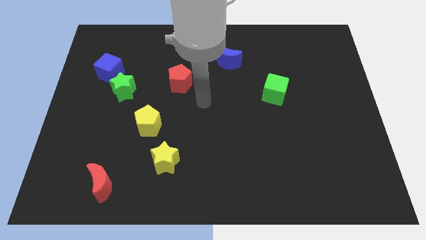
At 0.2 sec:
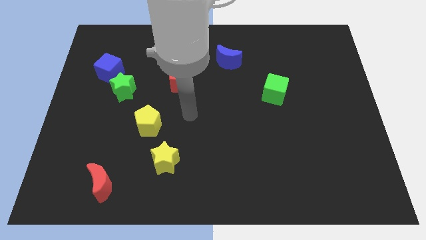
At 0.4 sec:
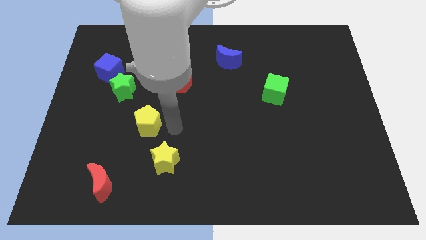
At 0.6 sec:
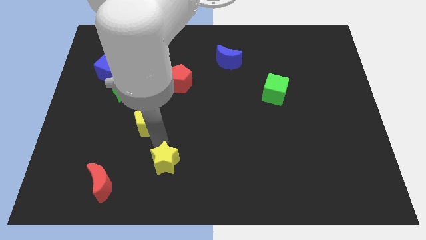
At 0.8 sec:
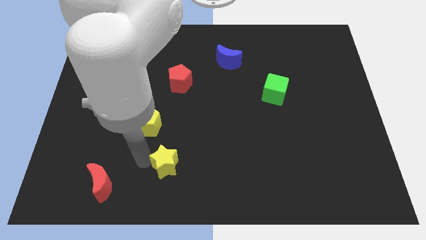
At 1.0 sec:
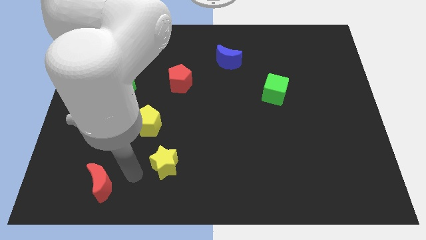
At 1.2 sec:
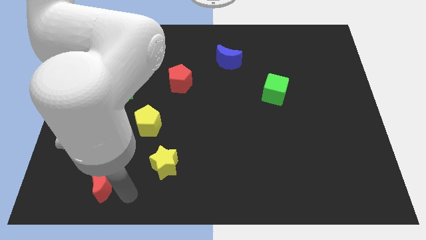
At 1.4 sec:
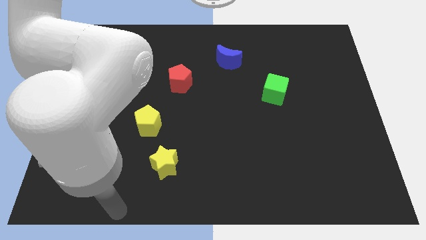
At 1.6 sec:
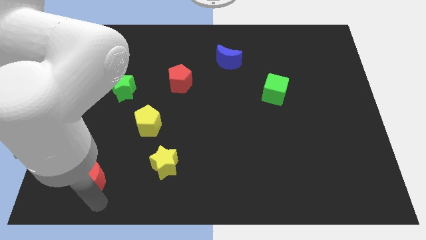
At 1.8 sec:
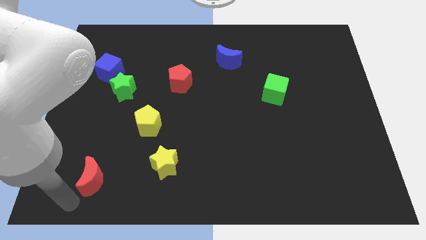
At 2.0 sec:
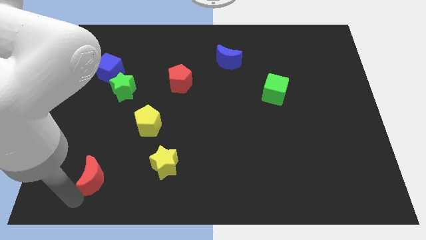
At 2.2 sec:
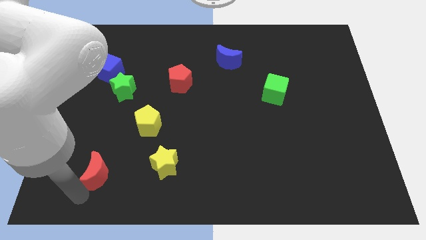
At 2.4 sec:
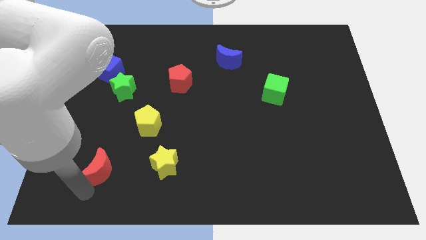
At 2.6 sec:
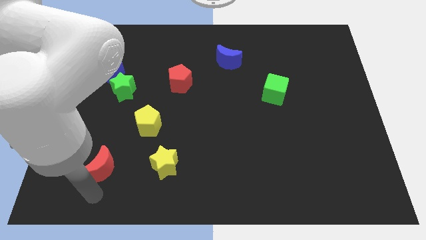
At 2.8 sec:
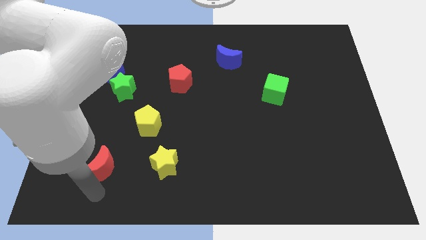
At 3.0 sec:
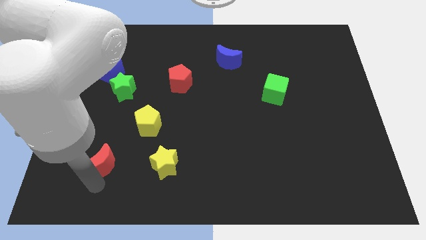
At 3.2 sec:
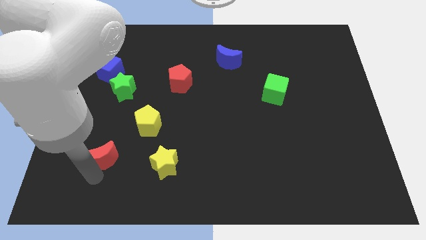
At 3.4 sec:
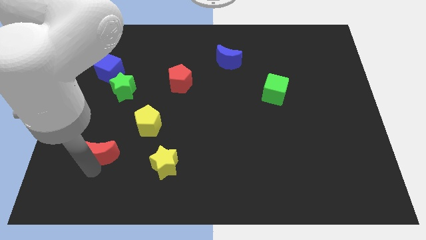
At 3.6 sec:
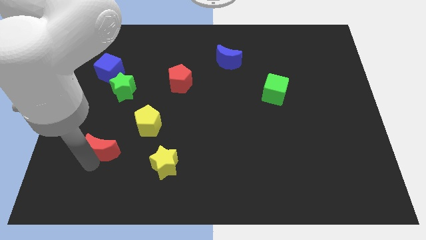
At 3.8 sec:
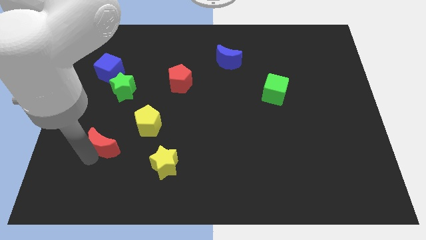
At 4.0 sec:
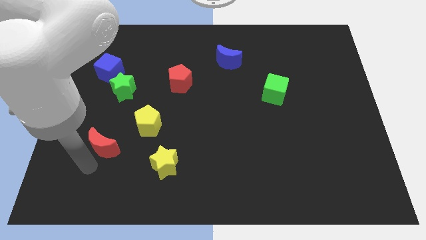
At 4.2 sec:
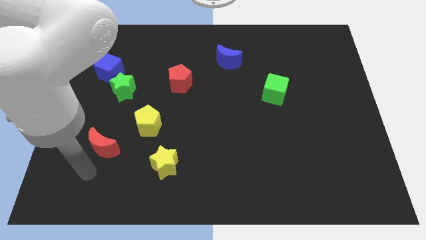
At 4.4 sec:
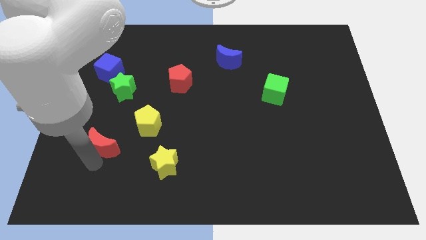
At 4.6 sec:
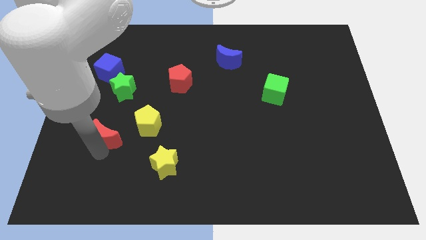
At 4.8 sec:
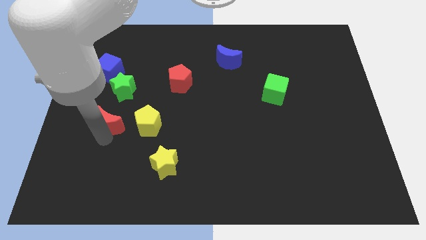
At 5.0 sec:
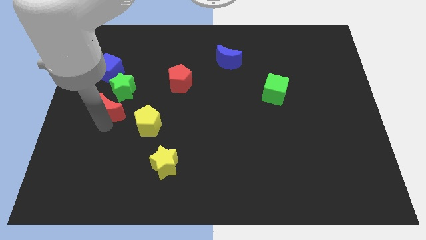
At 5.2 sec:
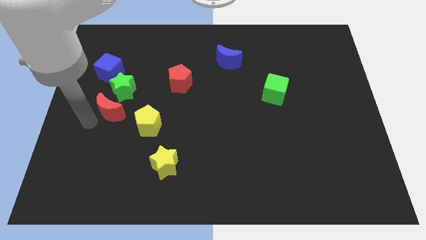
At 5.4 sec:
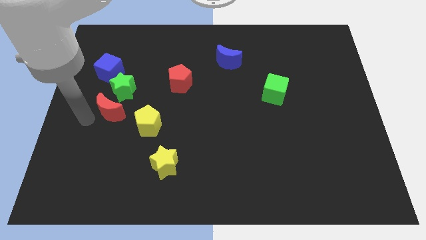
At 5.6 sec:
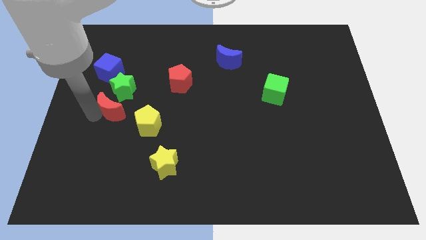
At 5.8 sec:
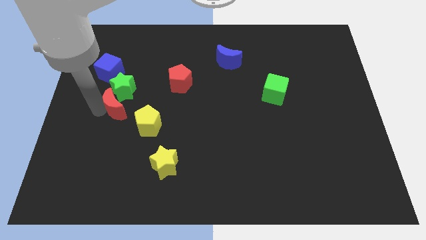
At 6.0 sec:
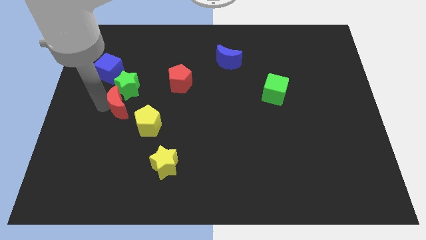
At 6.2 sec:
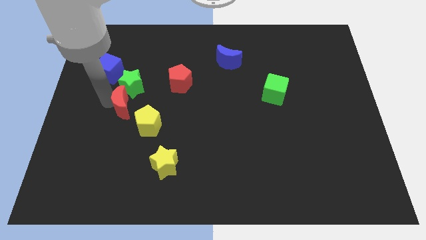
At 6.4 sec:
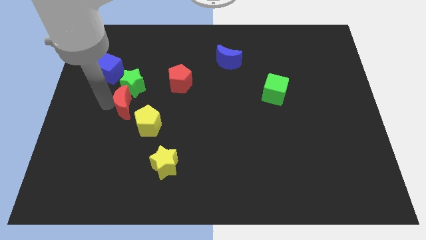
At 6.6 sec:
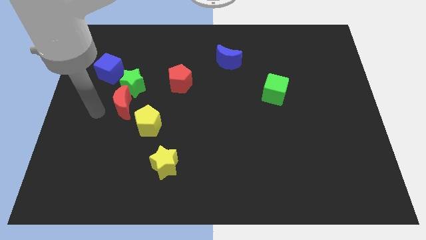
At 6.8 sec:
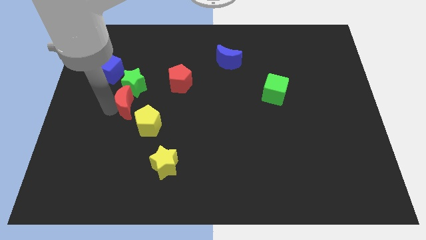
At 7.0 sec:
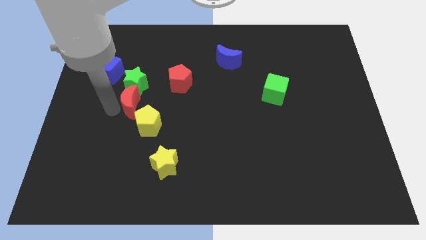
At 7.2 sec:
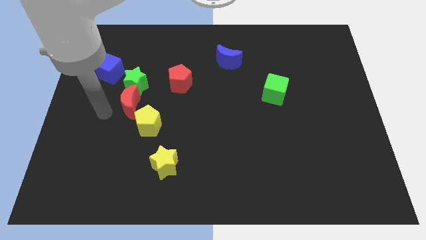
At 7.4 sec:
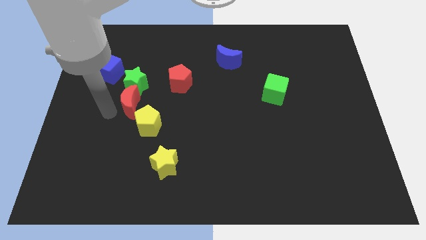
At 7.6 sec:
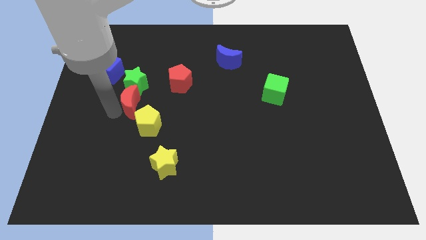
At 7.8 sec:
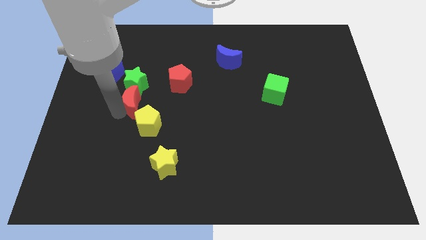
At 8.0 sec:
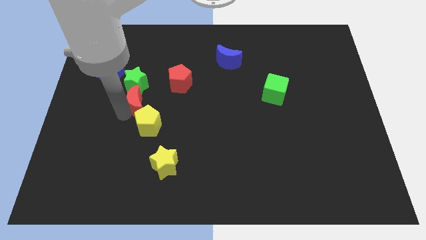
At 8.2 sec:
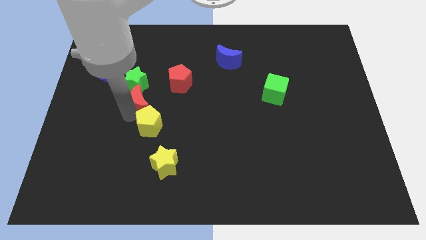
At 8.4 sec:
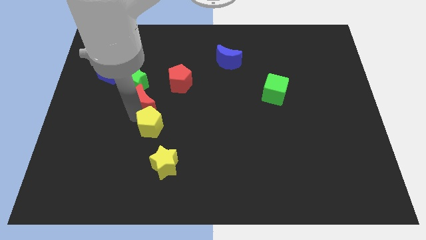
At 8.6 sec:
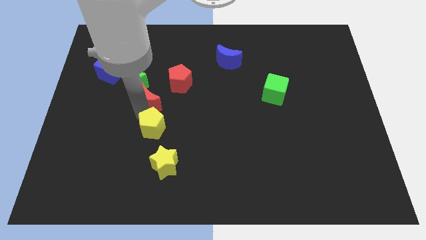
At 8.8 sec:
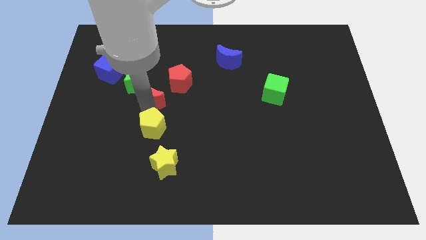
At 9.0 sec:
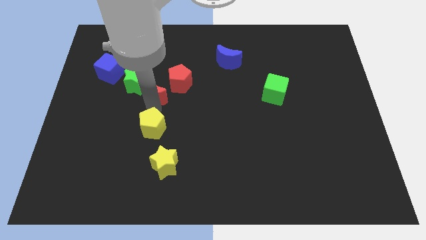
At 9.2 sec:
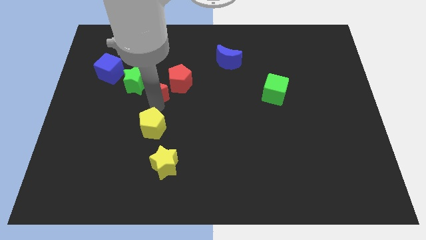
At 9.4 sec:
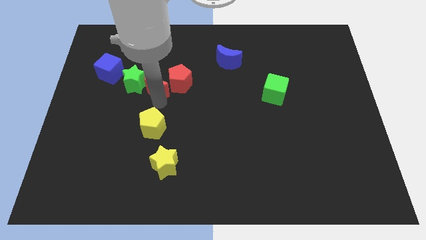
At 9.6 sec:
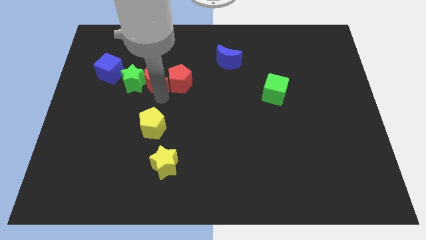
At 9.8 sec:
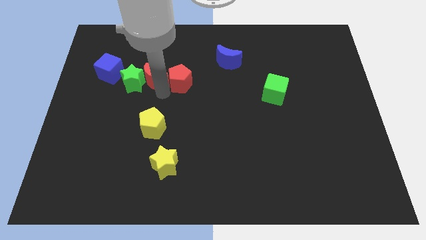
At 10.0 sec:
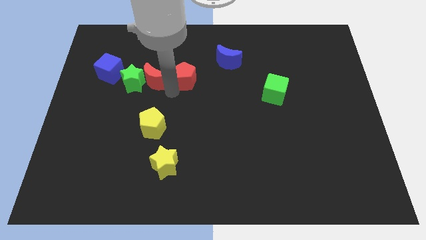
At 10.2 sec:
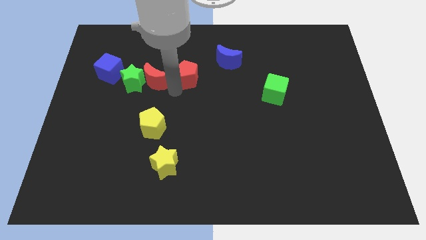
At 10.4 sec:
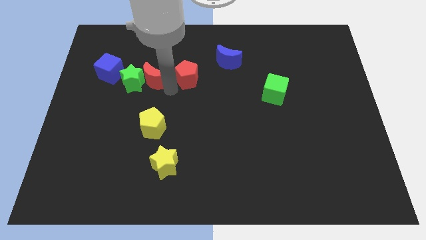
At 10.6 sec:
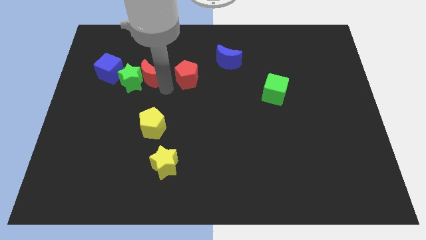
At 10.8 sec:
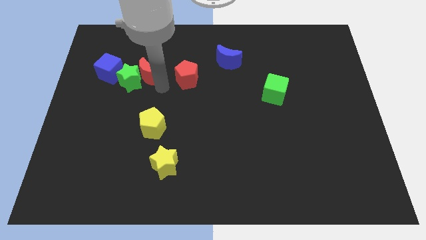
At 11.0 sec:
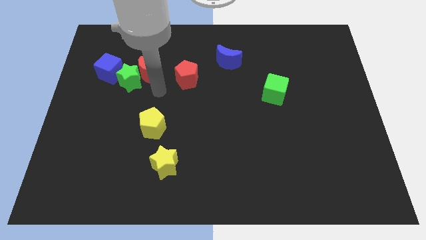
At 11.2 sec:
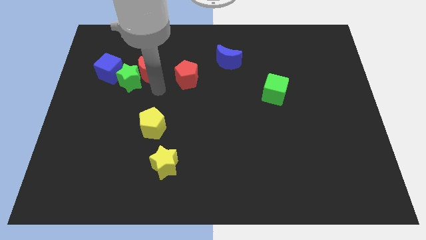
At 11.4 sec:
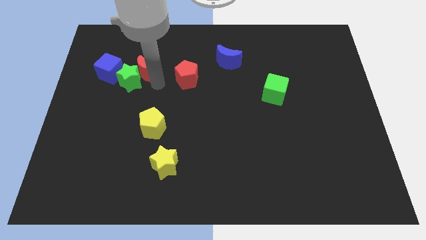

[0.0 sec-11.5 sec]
slide the red moon above the green star
